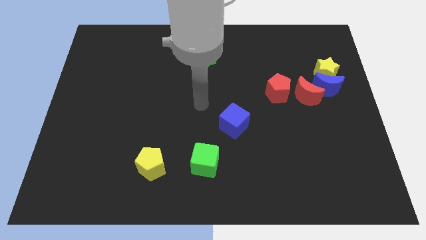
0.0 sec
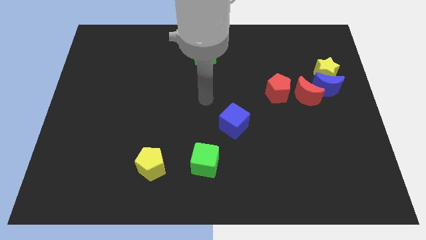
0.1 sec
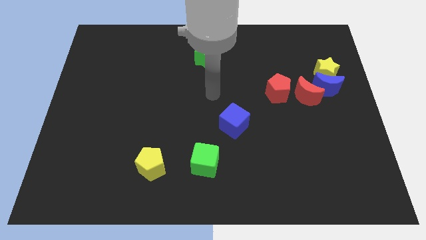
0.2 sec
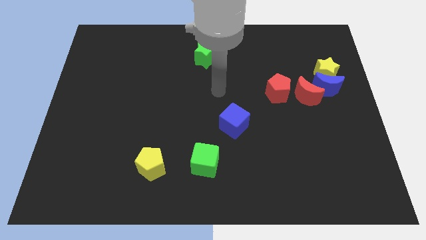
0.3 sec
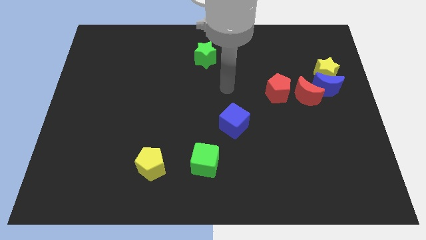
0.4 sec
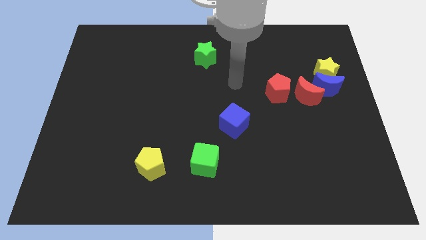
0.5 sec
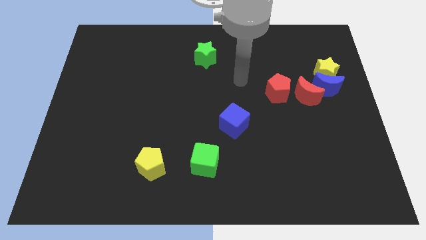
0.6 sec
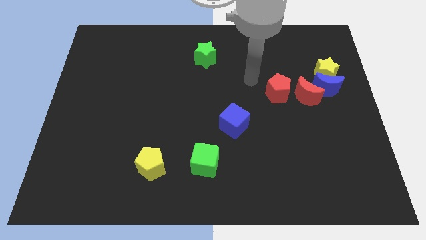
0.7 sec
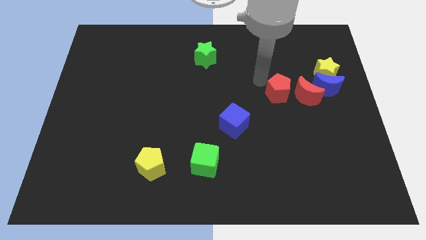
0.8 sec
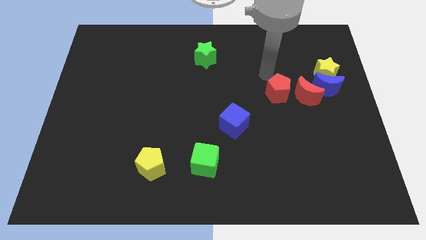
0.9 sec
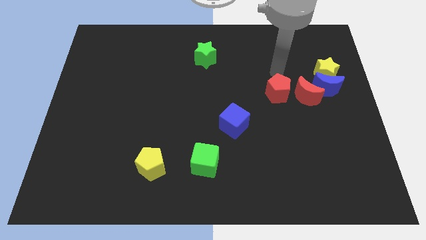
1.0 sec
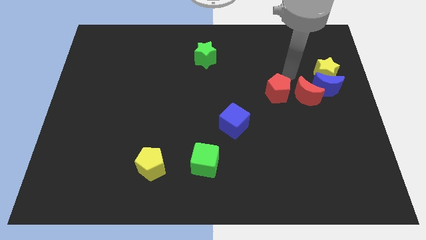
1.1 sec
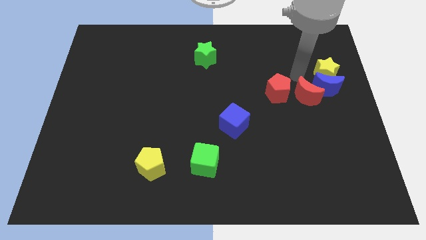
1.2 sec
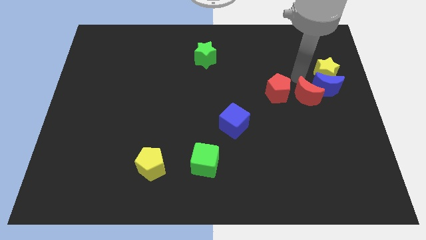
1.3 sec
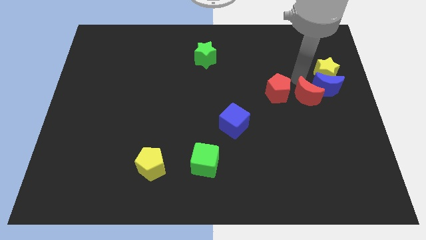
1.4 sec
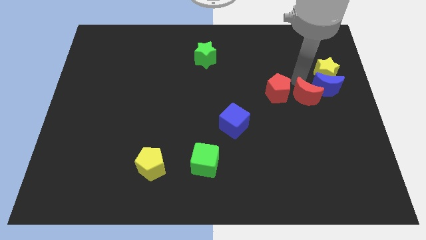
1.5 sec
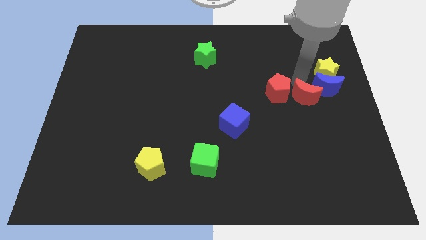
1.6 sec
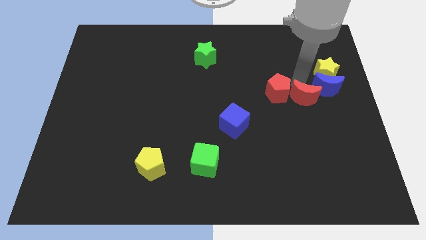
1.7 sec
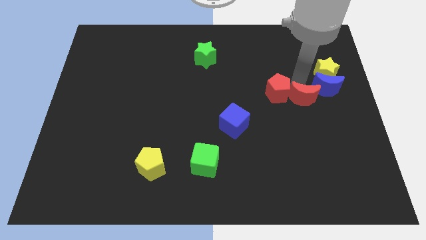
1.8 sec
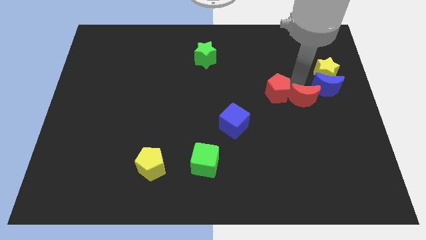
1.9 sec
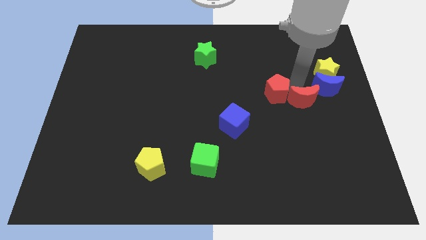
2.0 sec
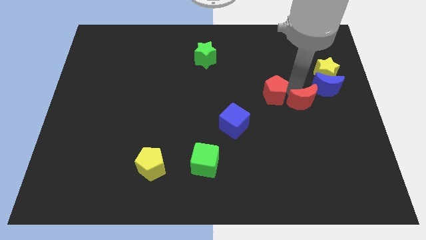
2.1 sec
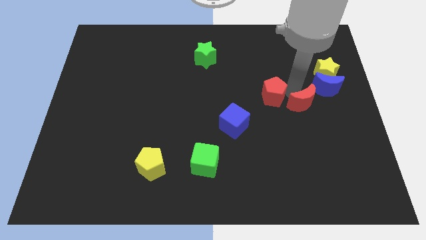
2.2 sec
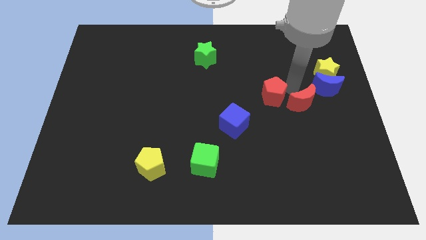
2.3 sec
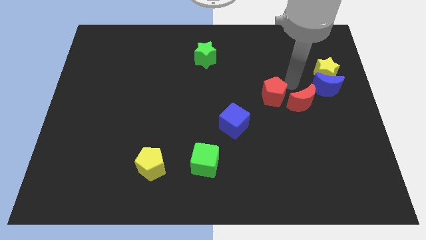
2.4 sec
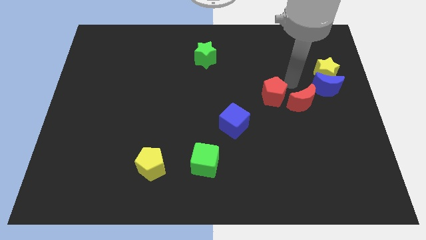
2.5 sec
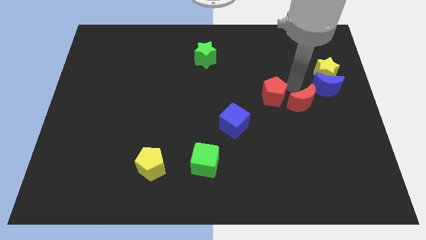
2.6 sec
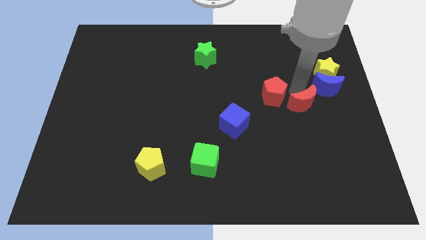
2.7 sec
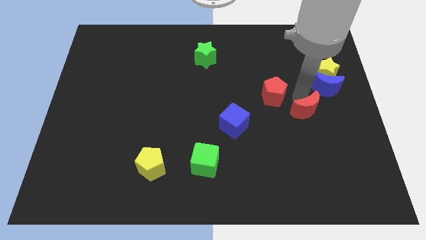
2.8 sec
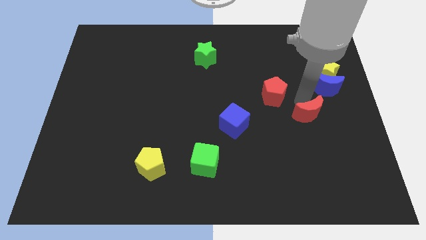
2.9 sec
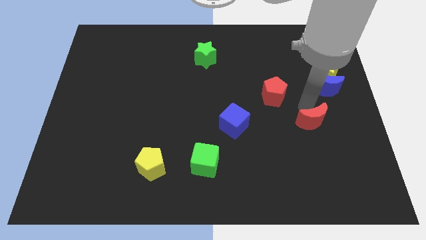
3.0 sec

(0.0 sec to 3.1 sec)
slightly move the red moon down

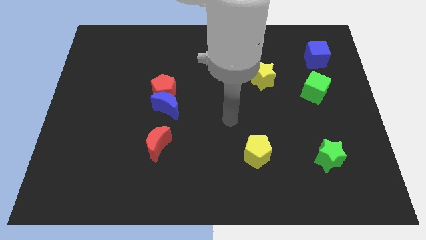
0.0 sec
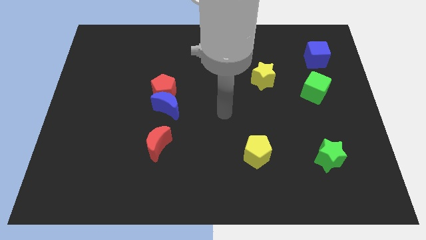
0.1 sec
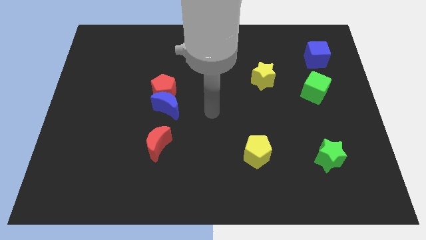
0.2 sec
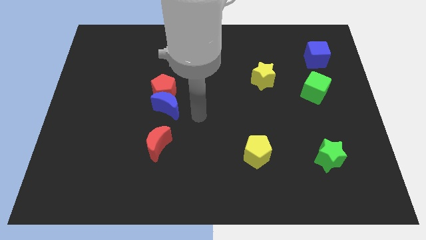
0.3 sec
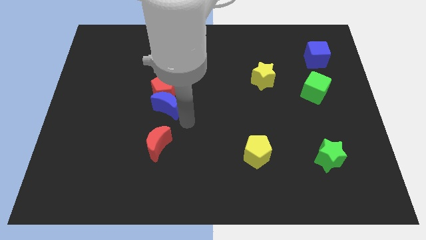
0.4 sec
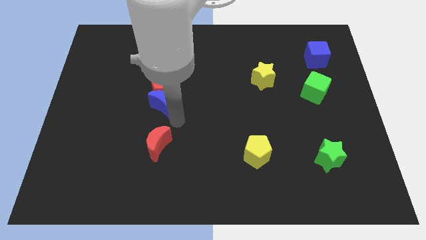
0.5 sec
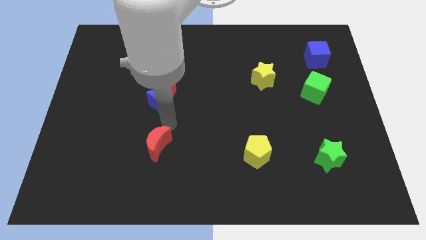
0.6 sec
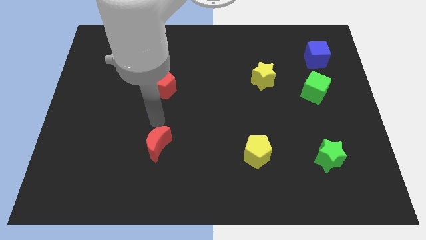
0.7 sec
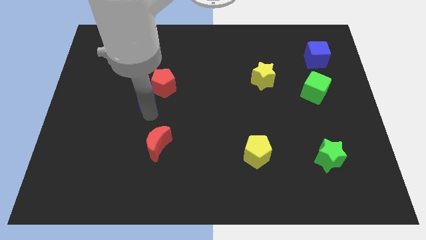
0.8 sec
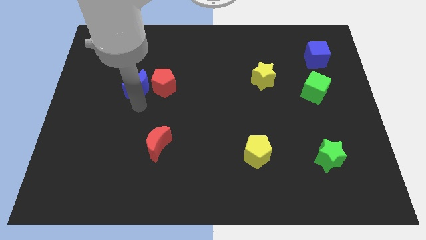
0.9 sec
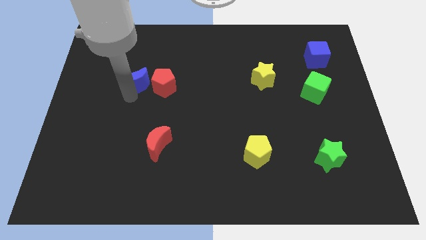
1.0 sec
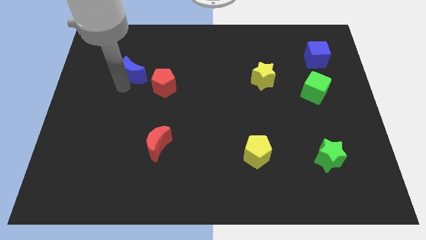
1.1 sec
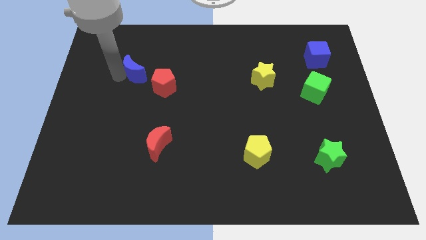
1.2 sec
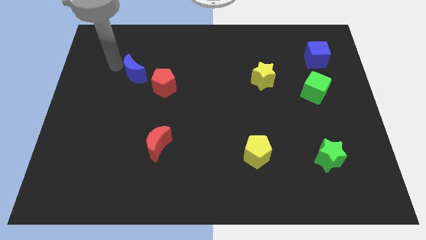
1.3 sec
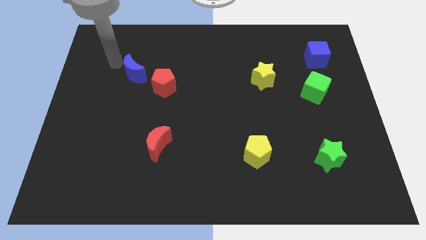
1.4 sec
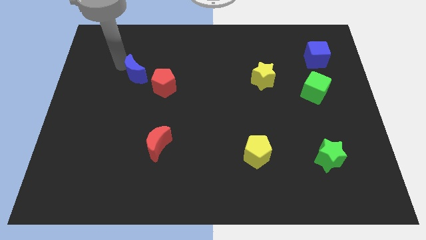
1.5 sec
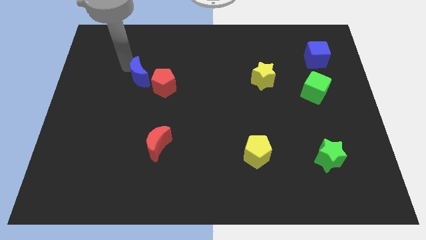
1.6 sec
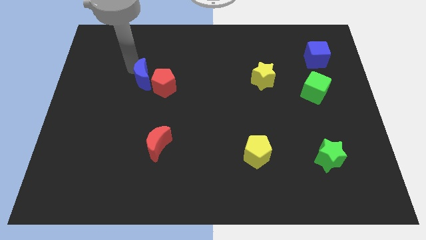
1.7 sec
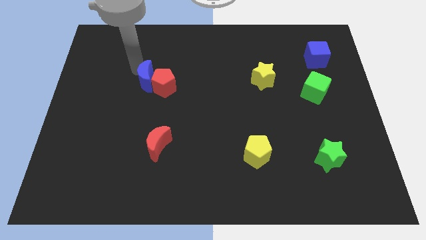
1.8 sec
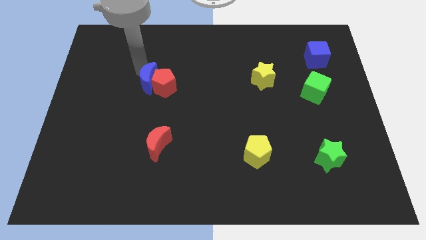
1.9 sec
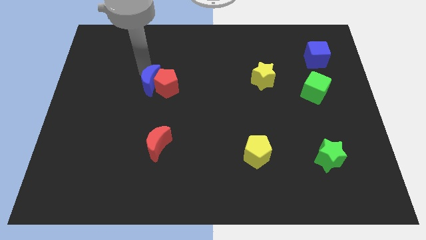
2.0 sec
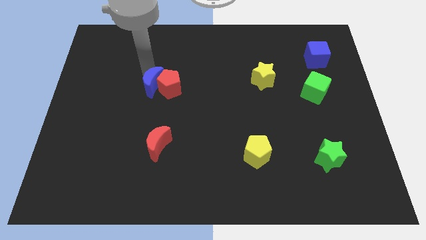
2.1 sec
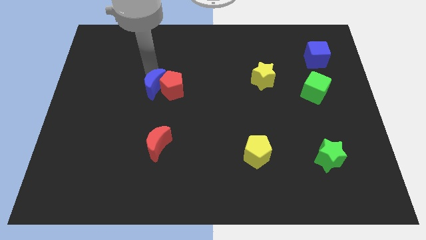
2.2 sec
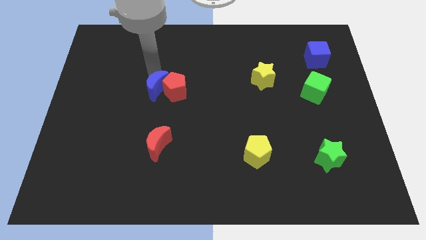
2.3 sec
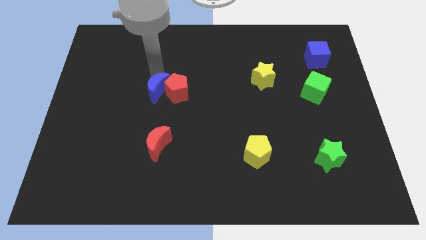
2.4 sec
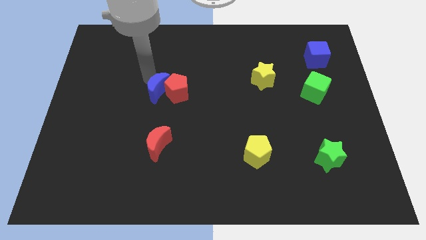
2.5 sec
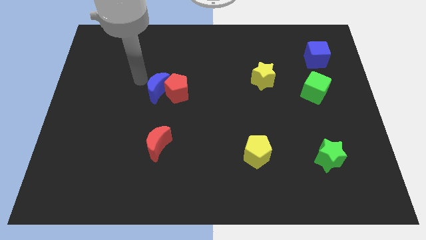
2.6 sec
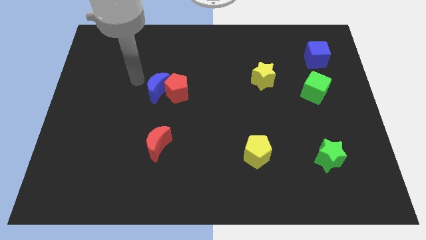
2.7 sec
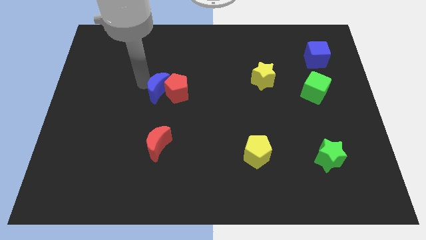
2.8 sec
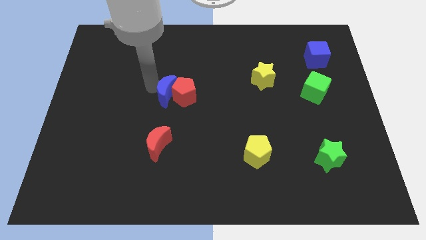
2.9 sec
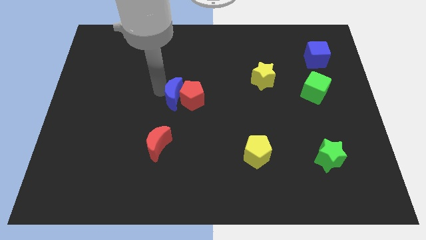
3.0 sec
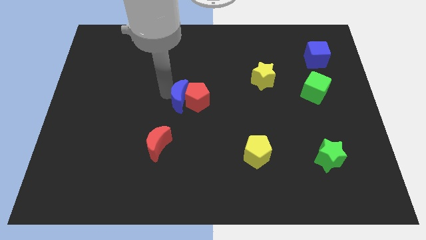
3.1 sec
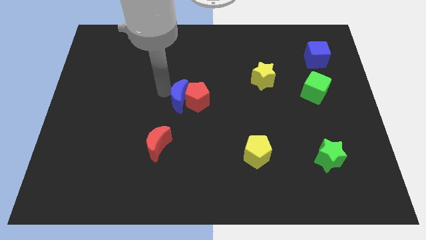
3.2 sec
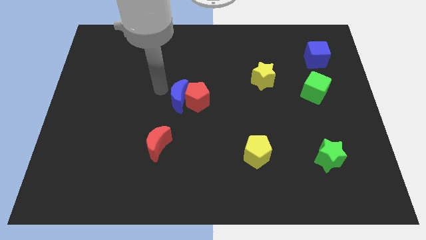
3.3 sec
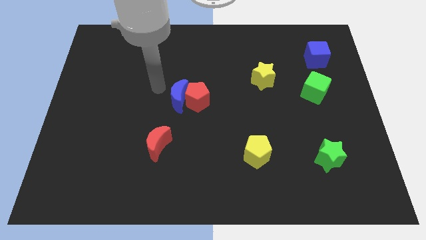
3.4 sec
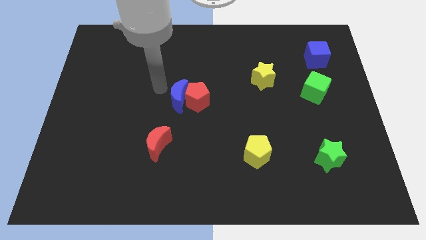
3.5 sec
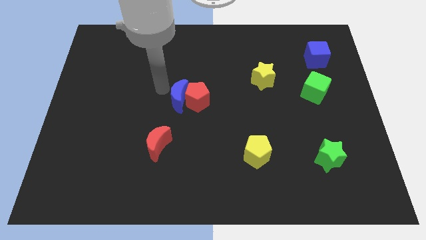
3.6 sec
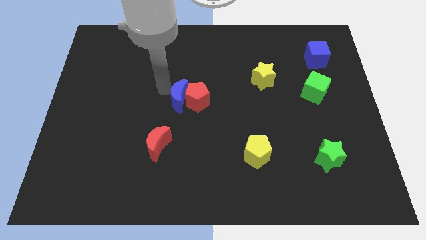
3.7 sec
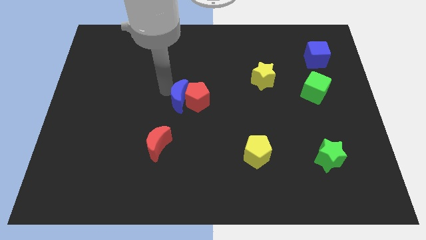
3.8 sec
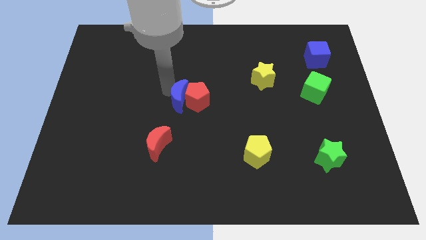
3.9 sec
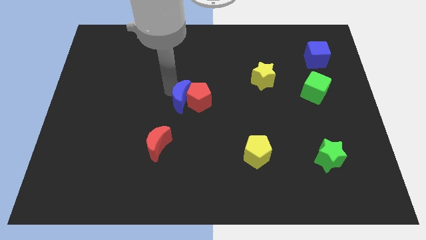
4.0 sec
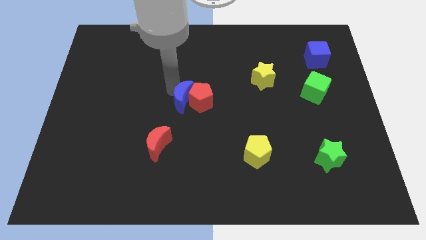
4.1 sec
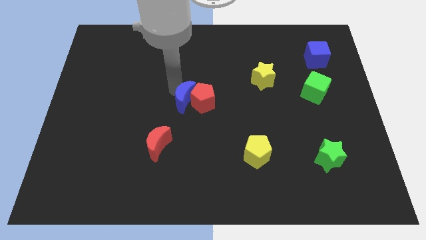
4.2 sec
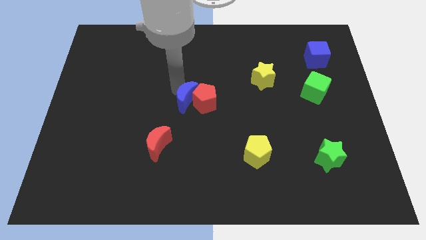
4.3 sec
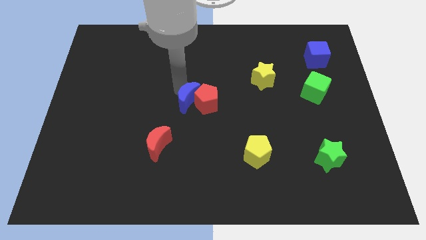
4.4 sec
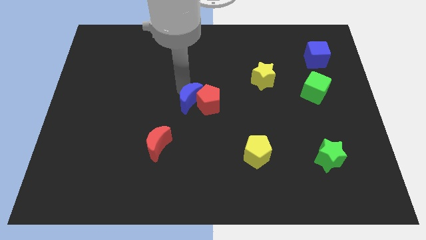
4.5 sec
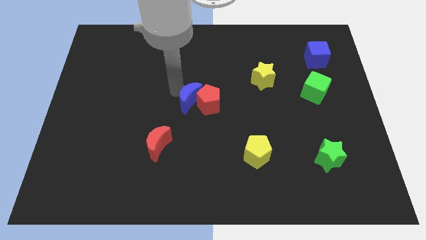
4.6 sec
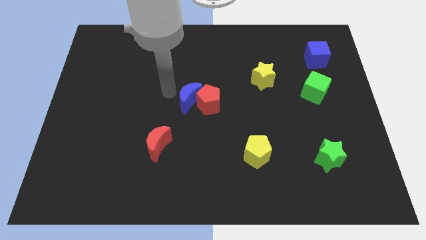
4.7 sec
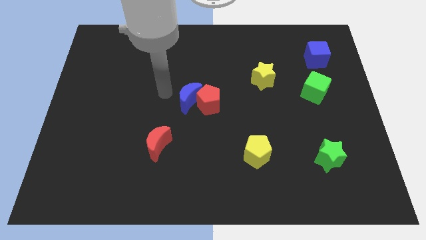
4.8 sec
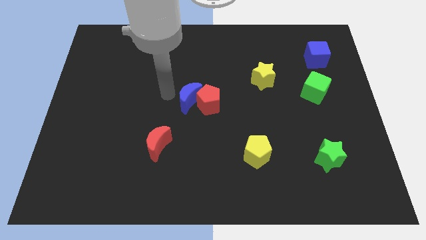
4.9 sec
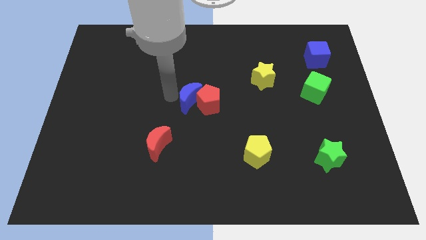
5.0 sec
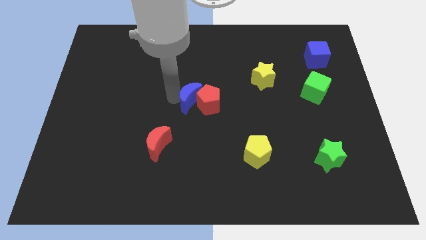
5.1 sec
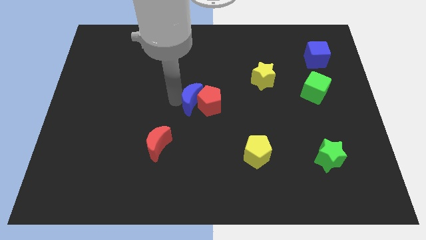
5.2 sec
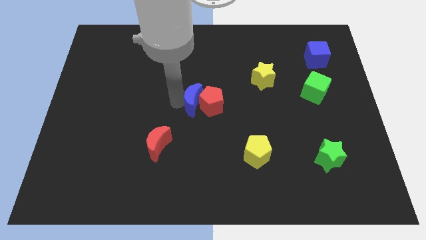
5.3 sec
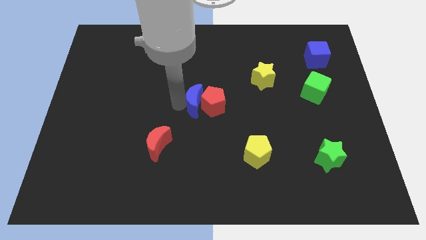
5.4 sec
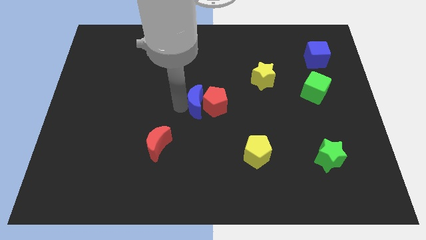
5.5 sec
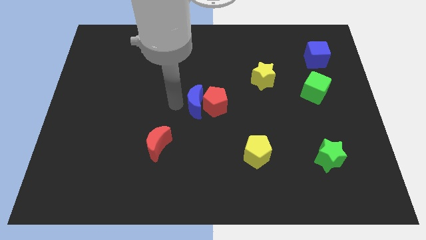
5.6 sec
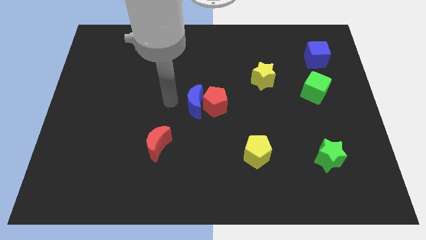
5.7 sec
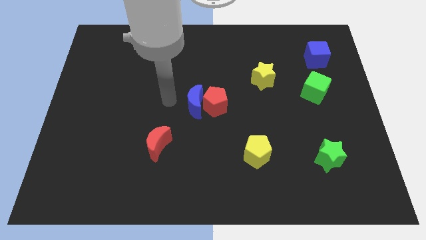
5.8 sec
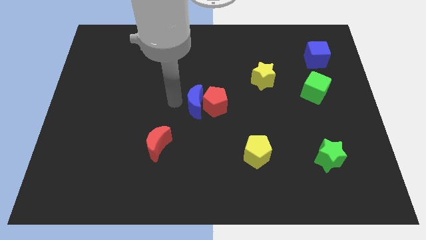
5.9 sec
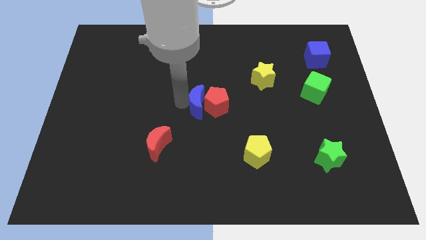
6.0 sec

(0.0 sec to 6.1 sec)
push the blue moon to the right somewhat
